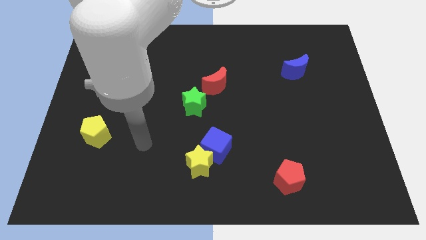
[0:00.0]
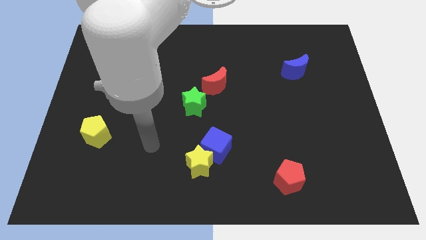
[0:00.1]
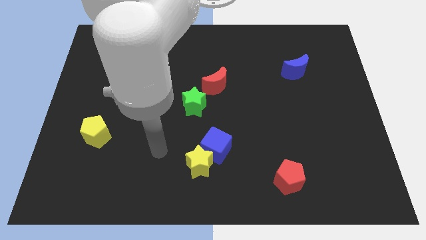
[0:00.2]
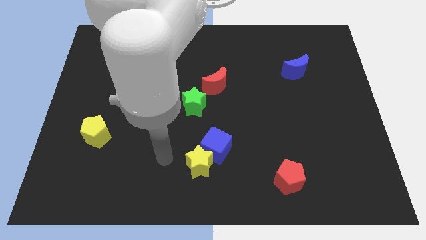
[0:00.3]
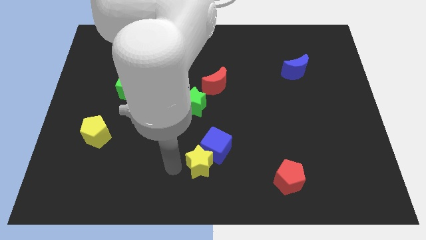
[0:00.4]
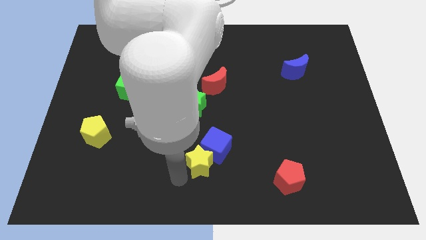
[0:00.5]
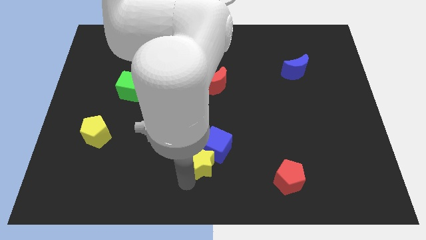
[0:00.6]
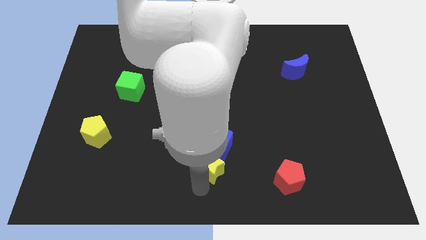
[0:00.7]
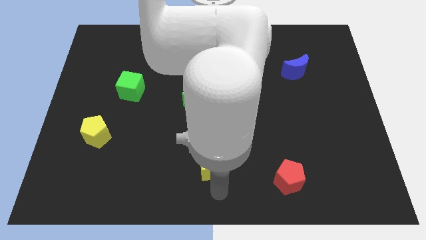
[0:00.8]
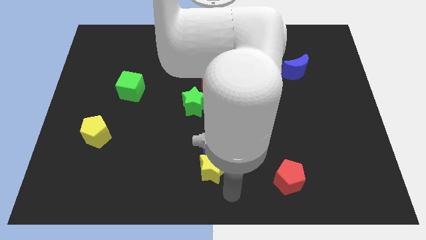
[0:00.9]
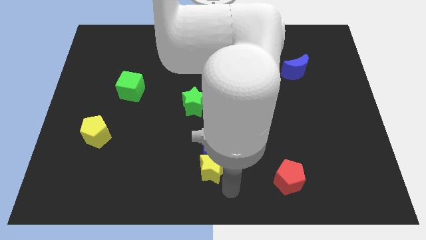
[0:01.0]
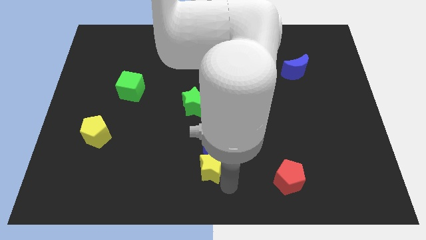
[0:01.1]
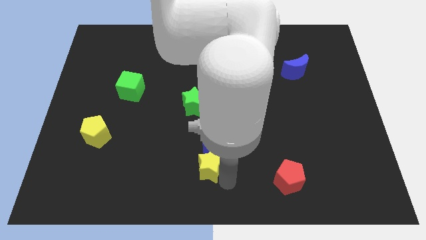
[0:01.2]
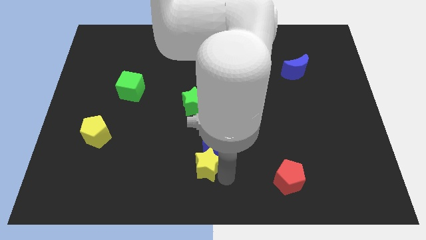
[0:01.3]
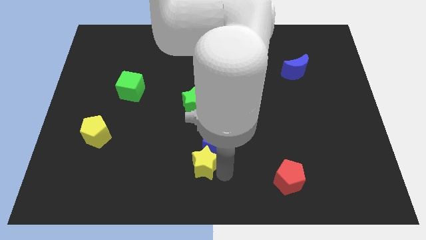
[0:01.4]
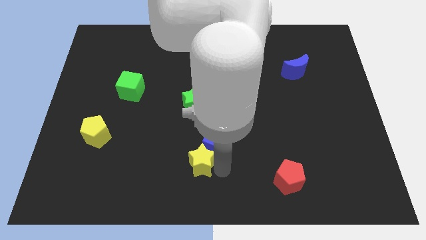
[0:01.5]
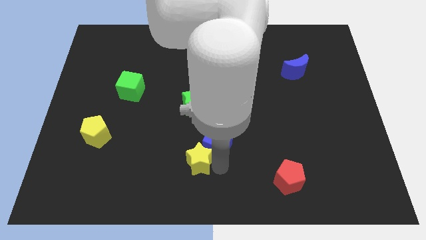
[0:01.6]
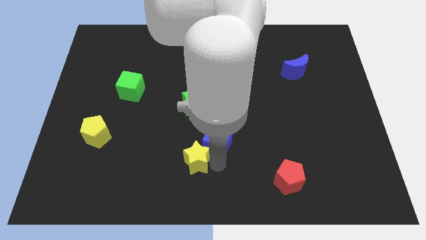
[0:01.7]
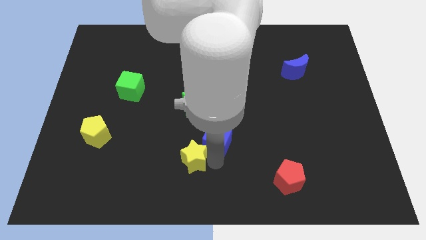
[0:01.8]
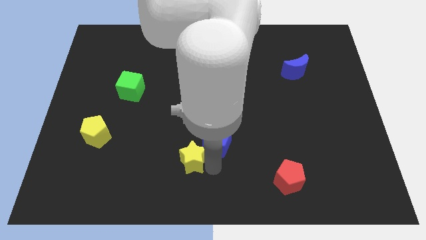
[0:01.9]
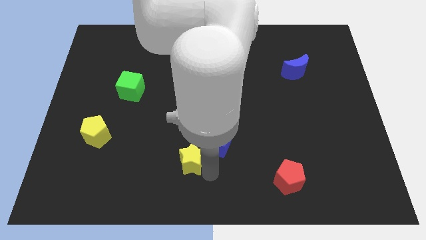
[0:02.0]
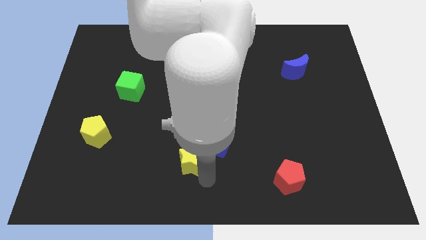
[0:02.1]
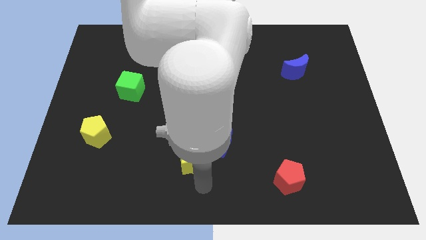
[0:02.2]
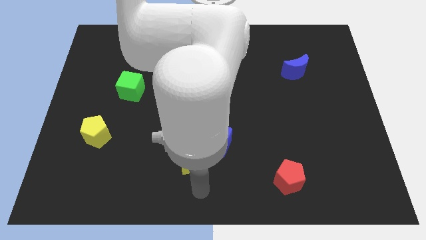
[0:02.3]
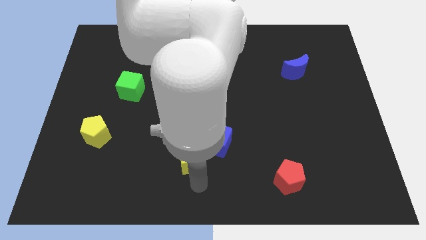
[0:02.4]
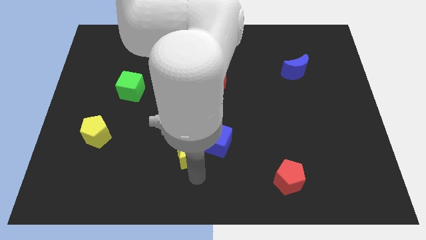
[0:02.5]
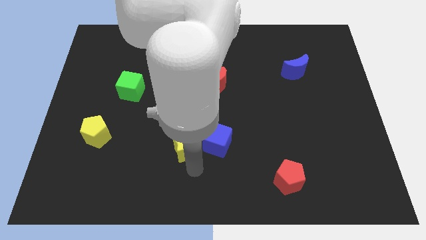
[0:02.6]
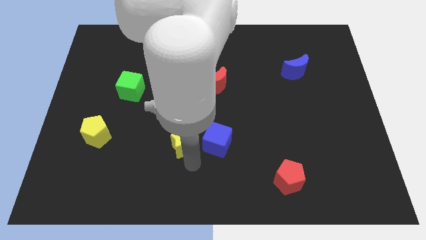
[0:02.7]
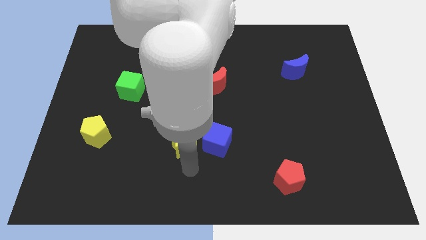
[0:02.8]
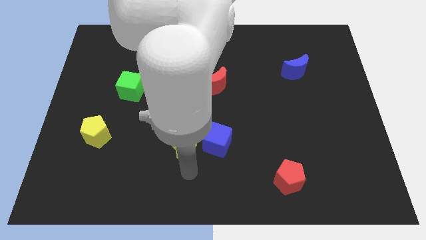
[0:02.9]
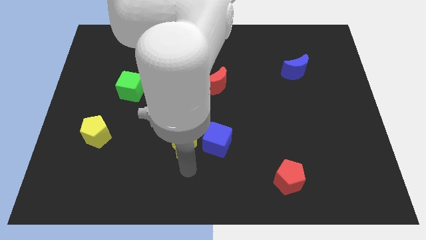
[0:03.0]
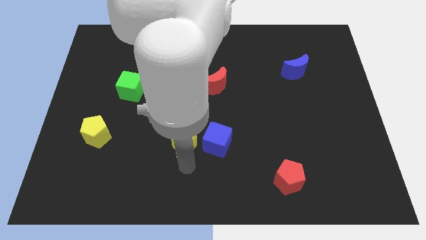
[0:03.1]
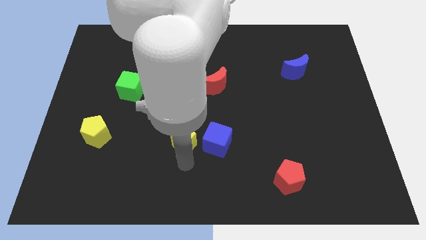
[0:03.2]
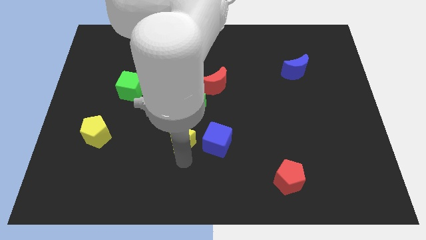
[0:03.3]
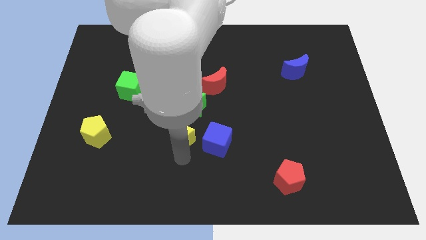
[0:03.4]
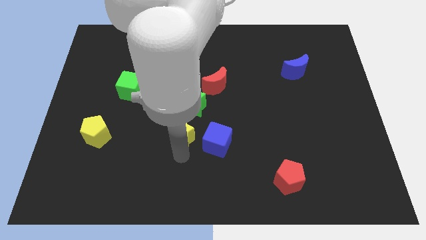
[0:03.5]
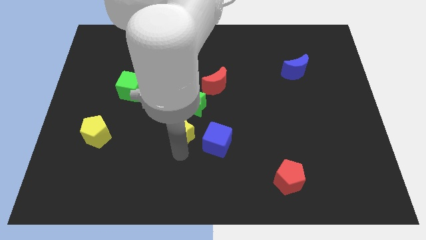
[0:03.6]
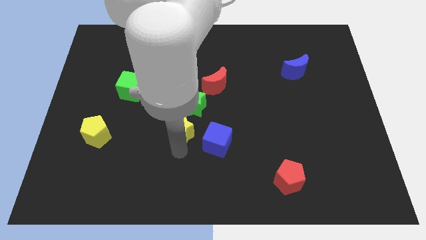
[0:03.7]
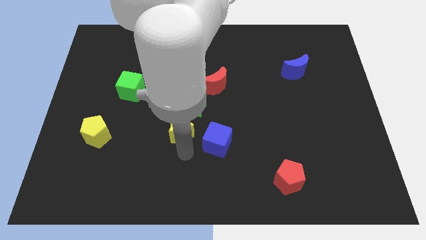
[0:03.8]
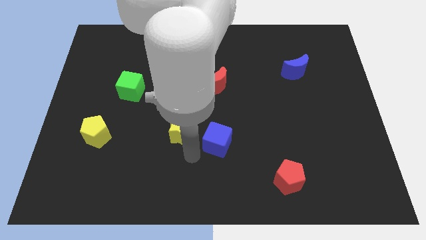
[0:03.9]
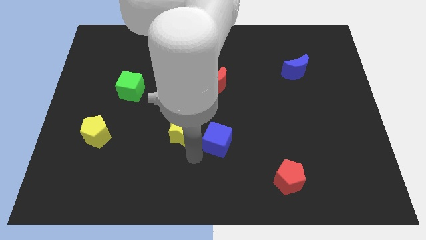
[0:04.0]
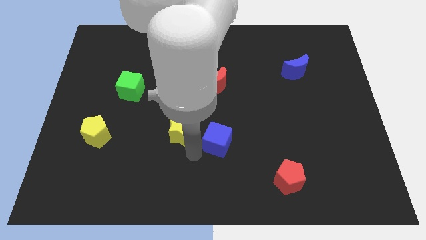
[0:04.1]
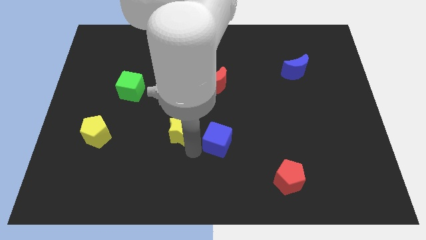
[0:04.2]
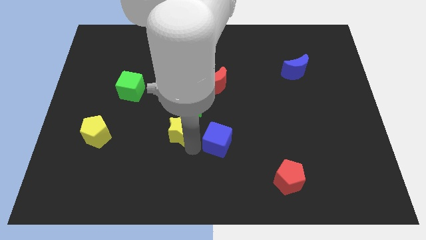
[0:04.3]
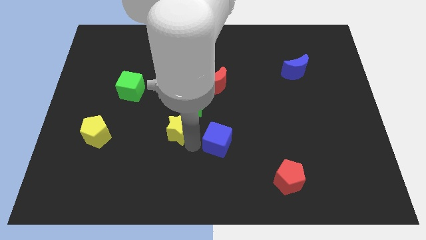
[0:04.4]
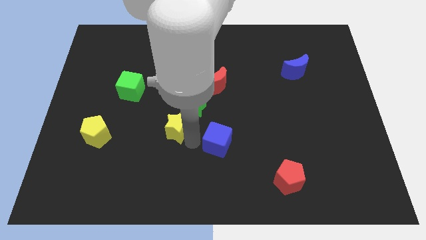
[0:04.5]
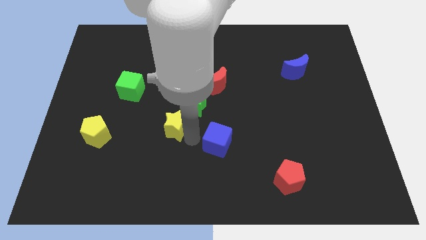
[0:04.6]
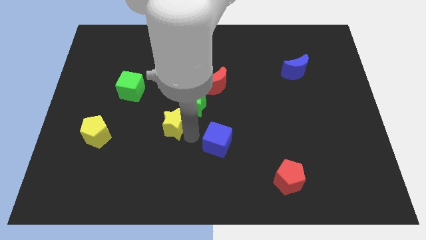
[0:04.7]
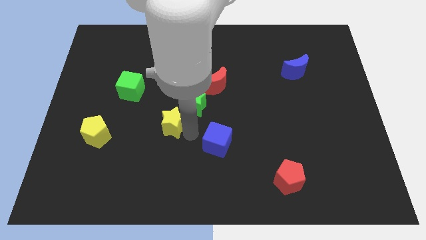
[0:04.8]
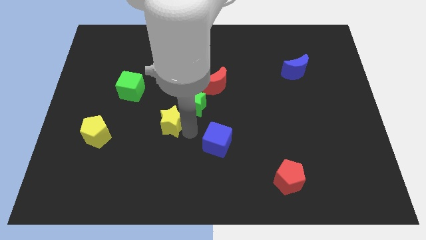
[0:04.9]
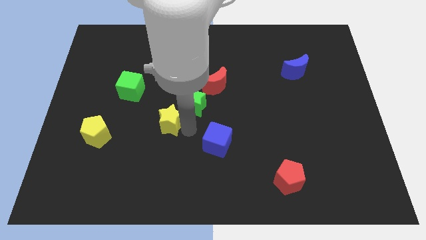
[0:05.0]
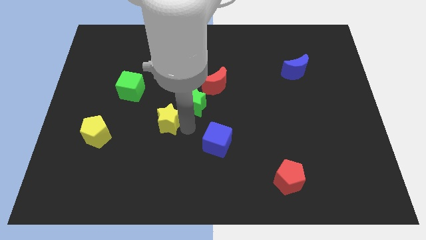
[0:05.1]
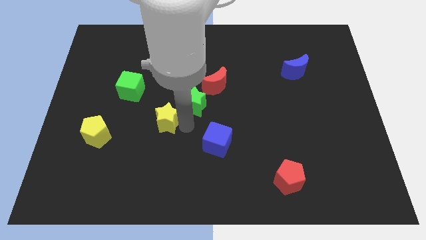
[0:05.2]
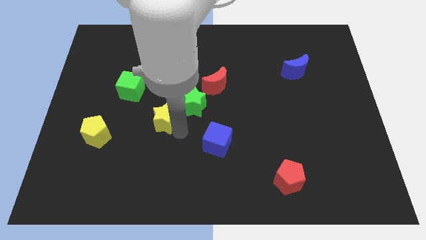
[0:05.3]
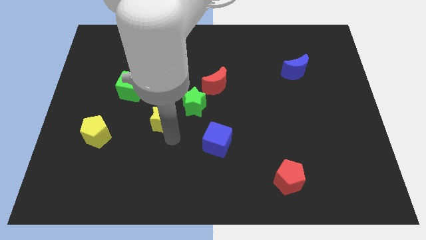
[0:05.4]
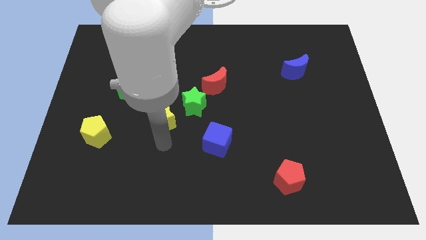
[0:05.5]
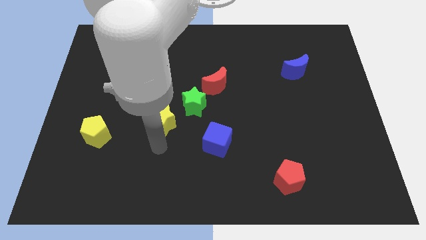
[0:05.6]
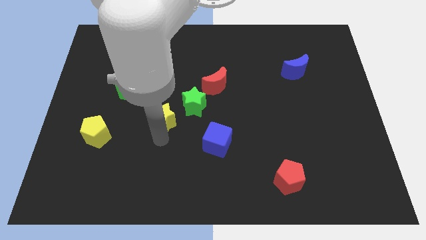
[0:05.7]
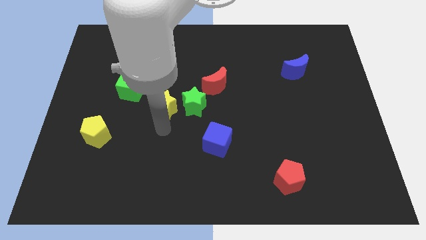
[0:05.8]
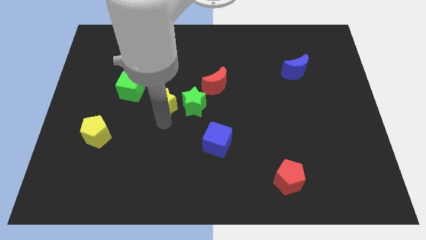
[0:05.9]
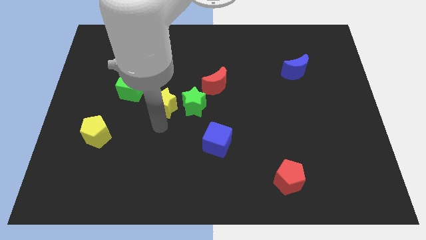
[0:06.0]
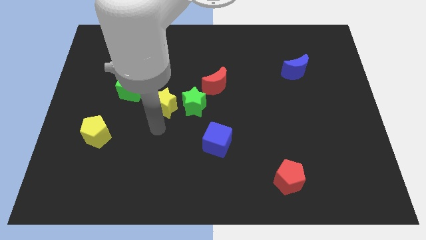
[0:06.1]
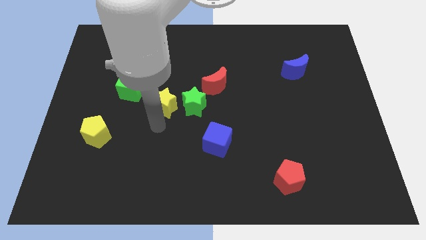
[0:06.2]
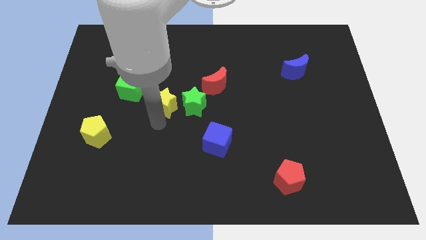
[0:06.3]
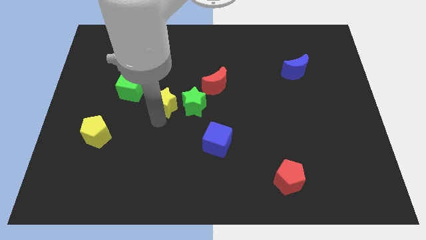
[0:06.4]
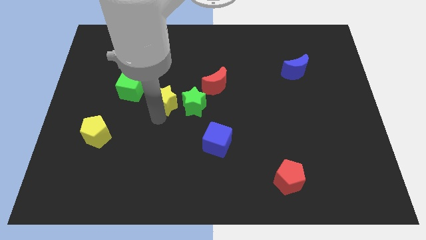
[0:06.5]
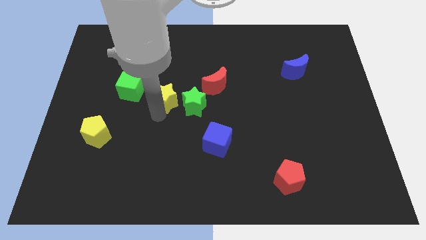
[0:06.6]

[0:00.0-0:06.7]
slide the yellow star to the left side of the red moon
